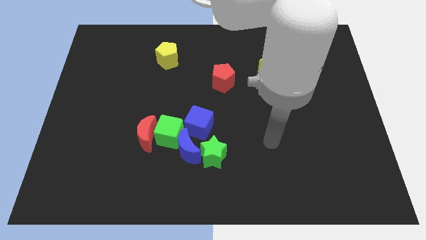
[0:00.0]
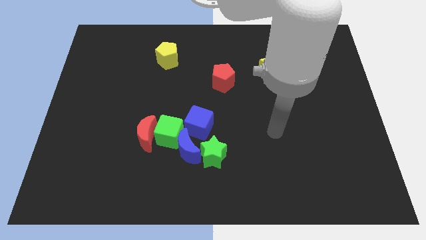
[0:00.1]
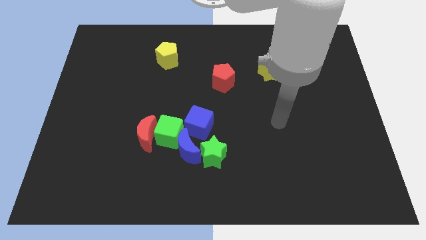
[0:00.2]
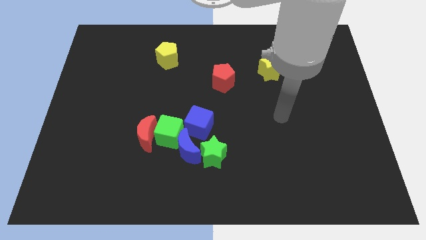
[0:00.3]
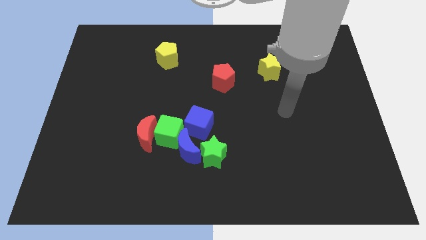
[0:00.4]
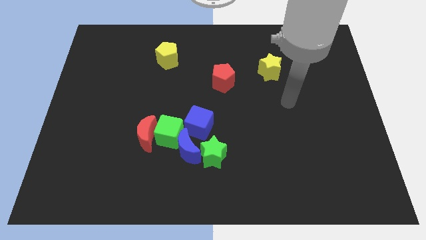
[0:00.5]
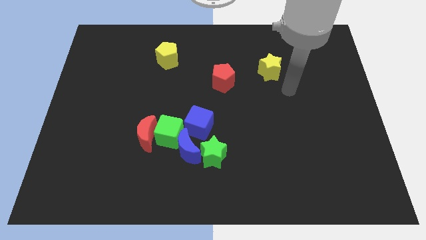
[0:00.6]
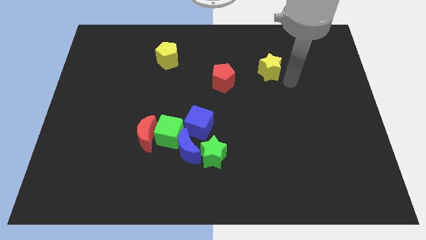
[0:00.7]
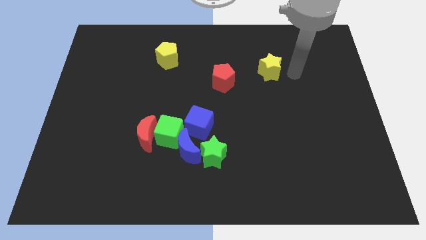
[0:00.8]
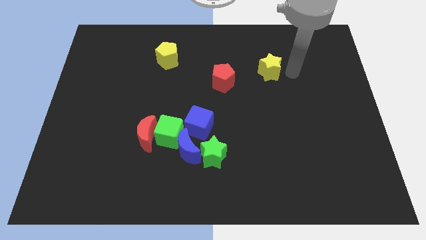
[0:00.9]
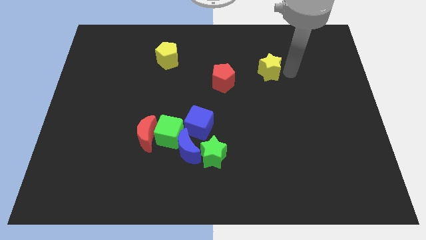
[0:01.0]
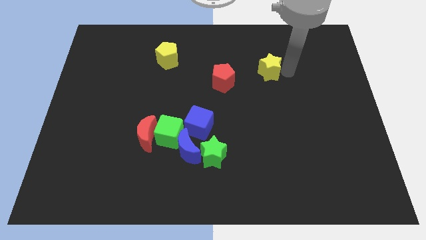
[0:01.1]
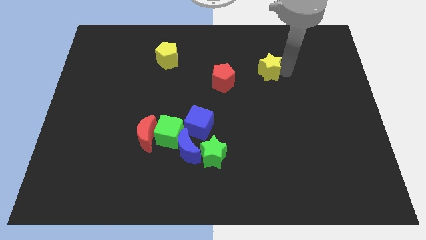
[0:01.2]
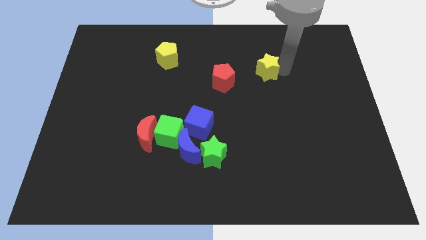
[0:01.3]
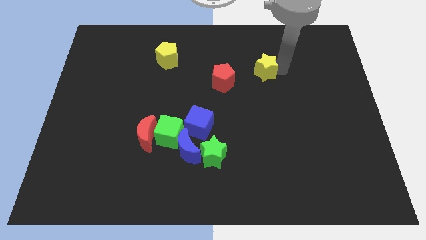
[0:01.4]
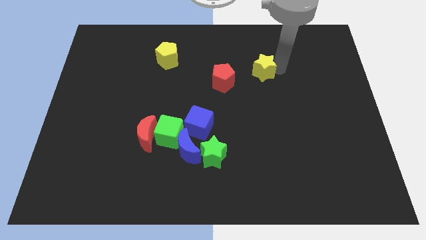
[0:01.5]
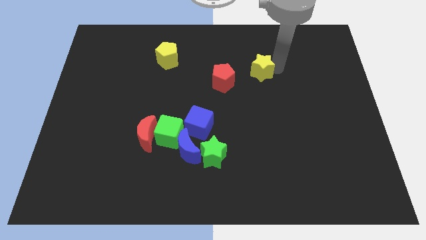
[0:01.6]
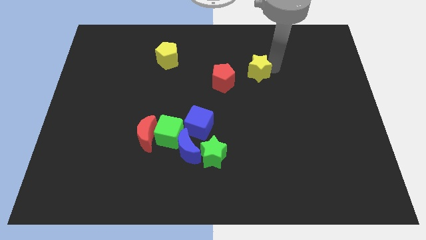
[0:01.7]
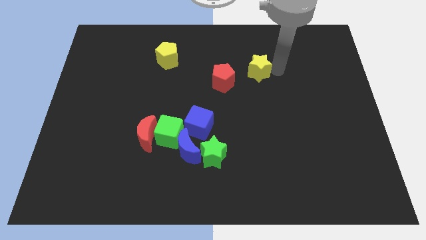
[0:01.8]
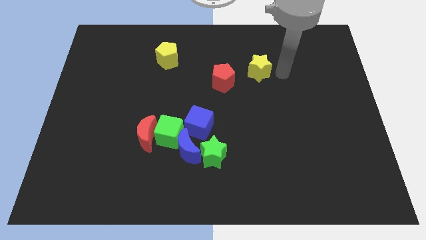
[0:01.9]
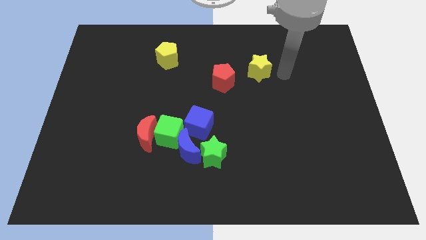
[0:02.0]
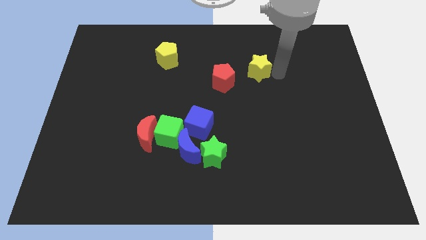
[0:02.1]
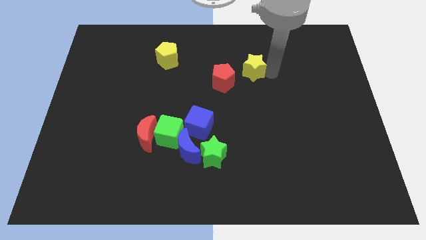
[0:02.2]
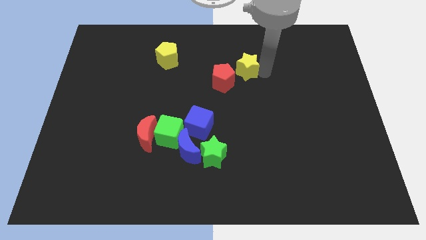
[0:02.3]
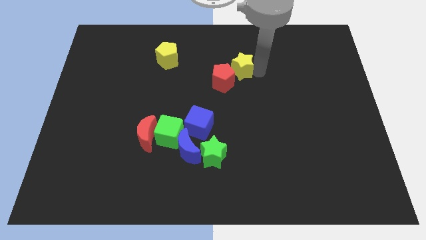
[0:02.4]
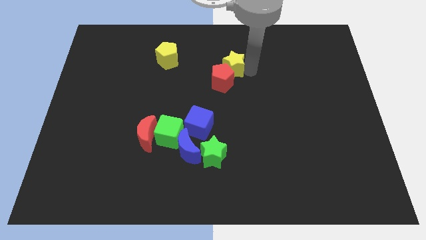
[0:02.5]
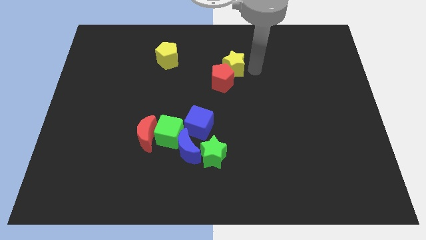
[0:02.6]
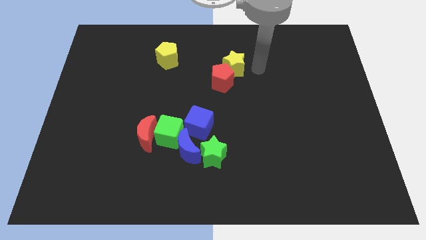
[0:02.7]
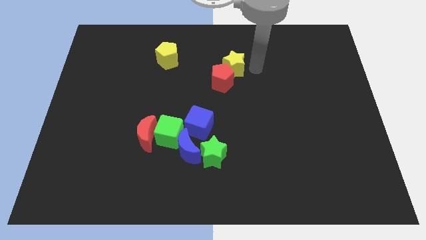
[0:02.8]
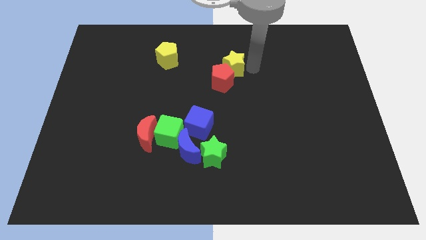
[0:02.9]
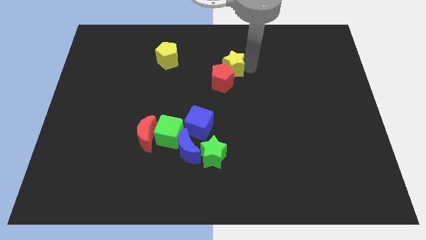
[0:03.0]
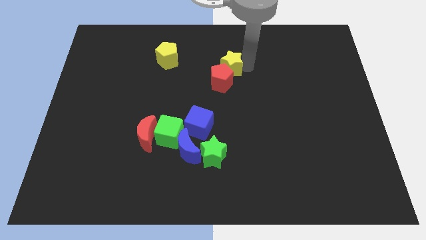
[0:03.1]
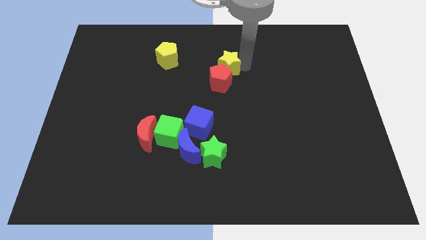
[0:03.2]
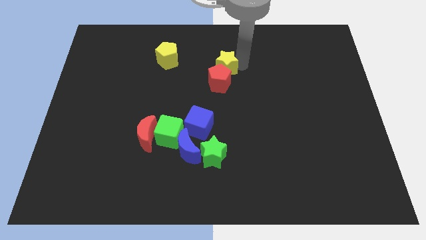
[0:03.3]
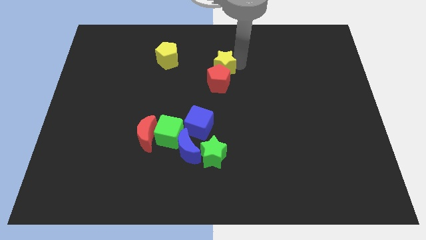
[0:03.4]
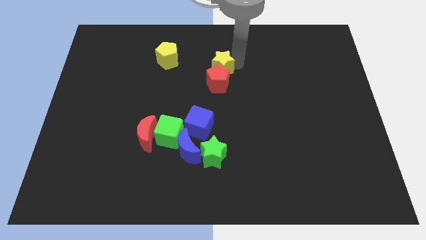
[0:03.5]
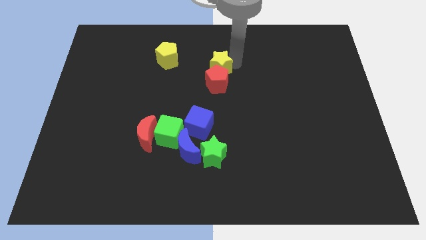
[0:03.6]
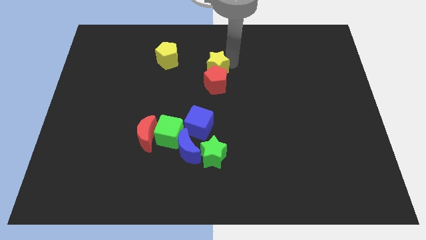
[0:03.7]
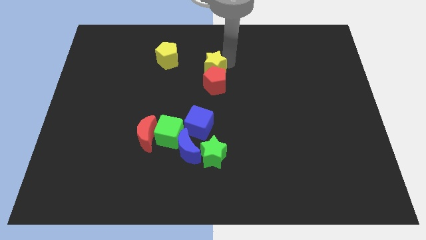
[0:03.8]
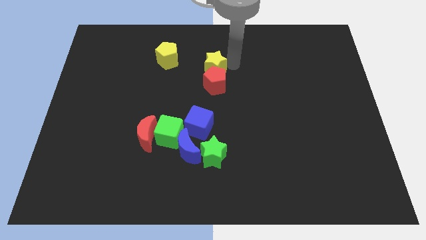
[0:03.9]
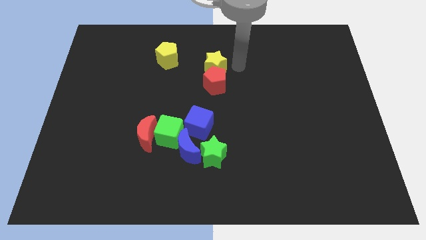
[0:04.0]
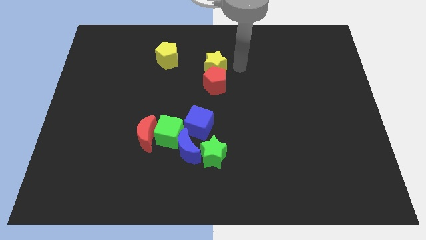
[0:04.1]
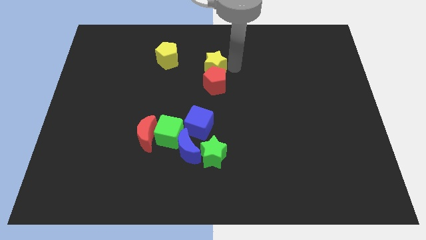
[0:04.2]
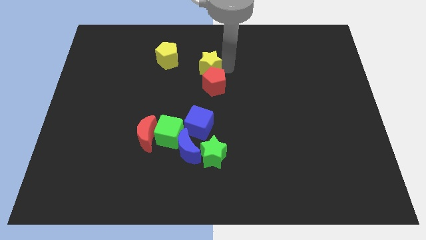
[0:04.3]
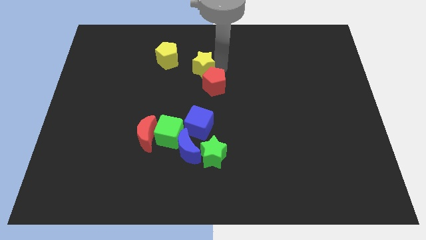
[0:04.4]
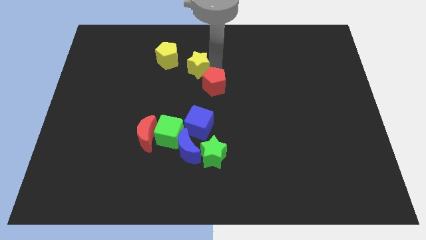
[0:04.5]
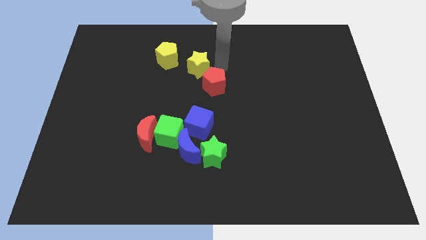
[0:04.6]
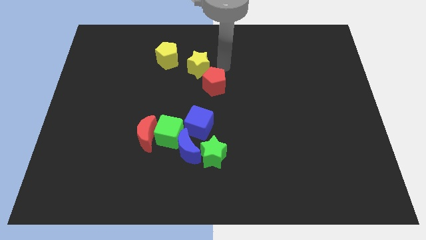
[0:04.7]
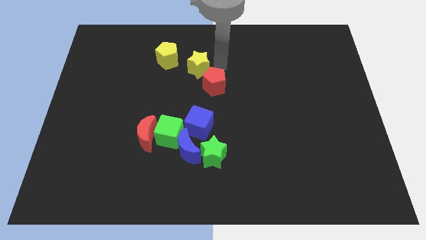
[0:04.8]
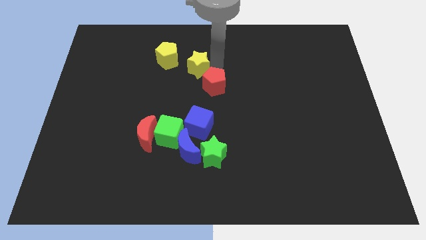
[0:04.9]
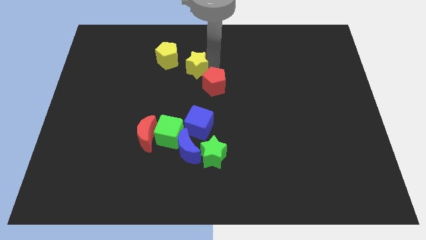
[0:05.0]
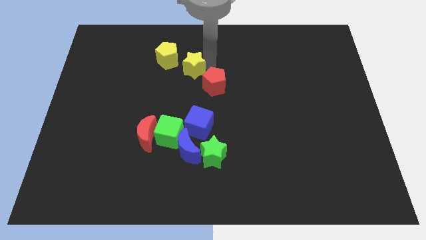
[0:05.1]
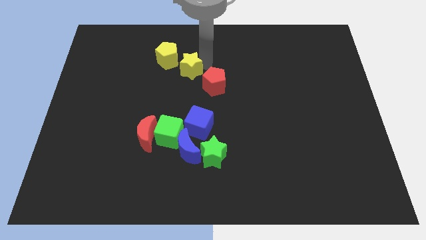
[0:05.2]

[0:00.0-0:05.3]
move the yellow star to the left

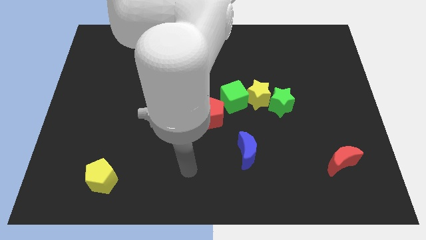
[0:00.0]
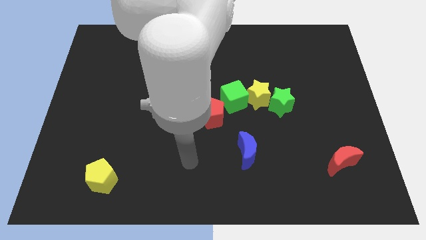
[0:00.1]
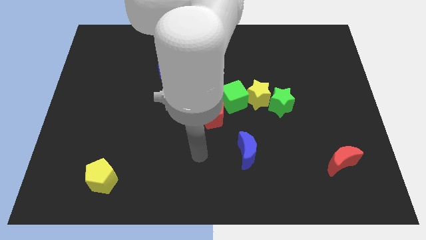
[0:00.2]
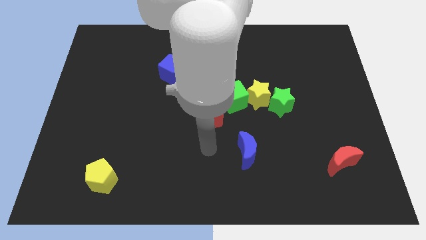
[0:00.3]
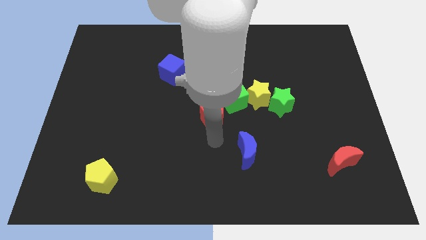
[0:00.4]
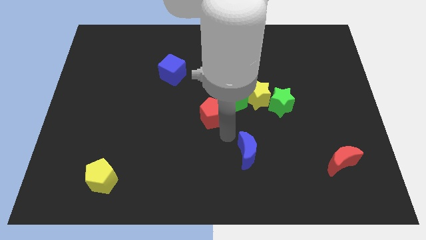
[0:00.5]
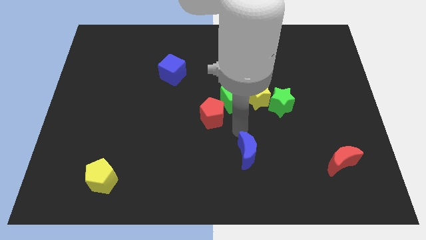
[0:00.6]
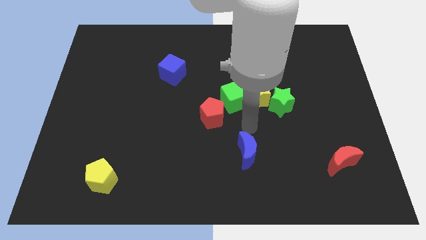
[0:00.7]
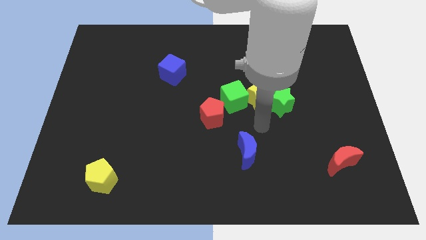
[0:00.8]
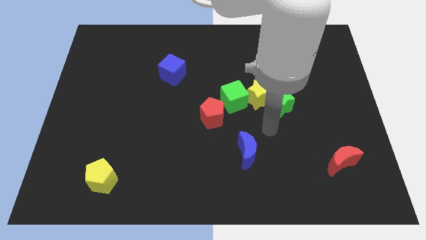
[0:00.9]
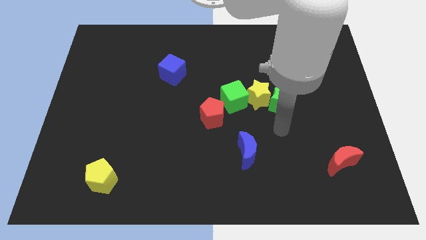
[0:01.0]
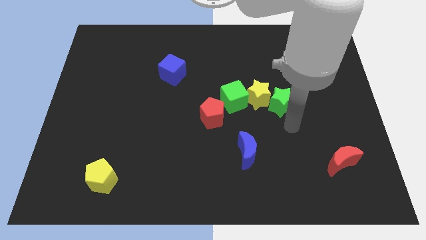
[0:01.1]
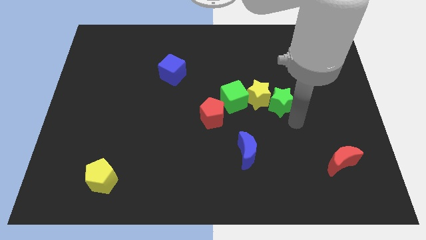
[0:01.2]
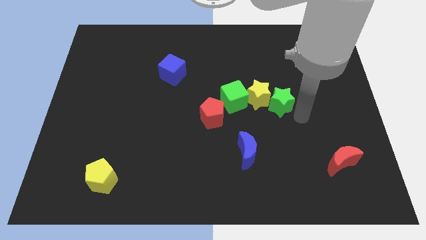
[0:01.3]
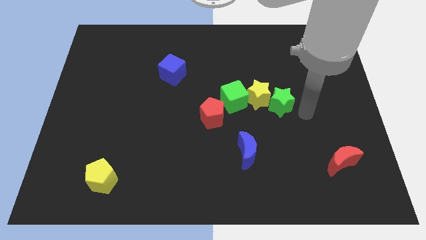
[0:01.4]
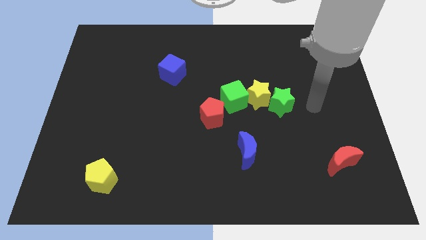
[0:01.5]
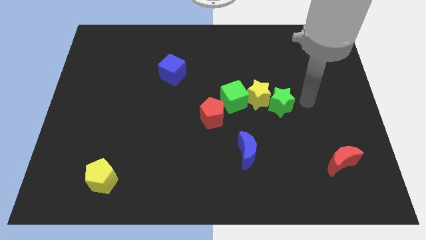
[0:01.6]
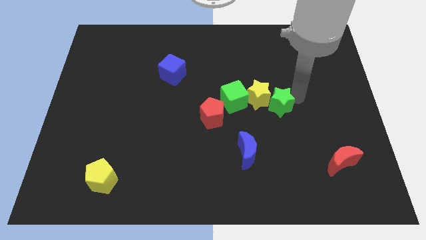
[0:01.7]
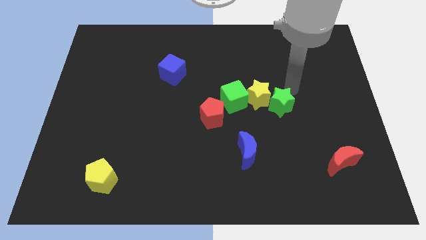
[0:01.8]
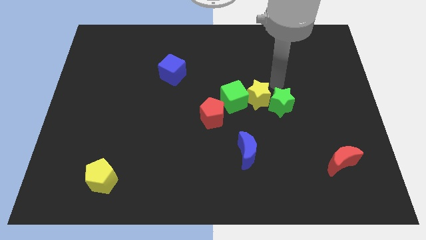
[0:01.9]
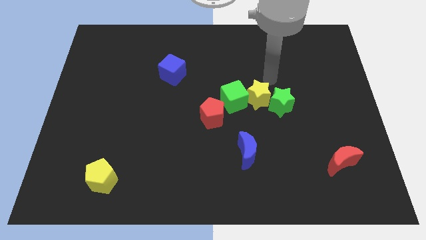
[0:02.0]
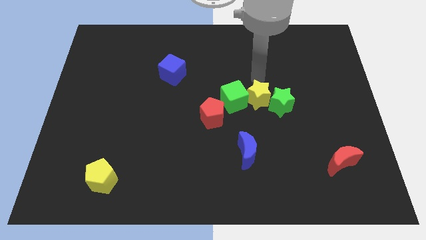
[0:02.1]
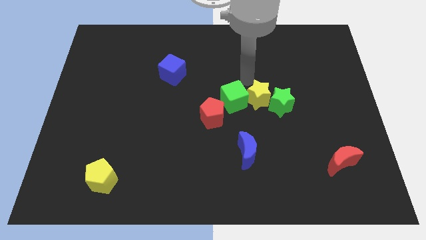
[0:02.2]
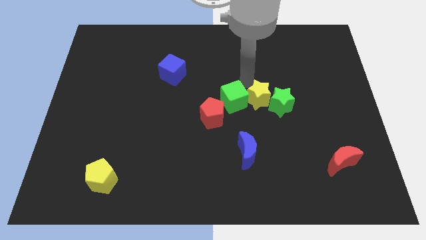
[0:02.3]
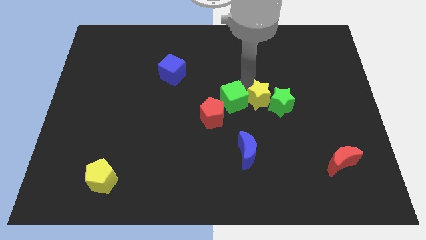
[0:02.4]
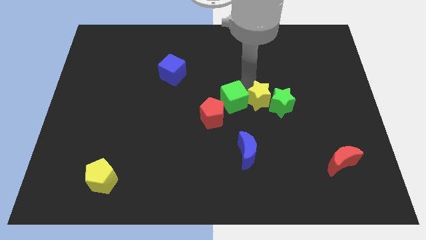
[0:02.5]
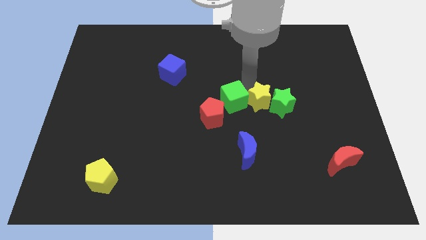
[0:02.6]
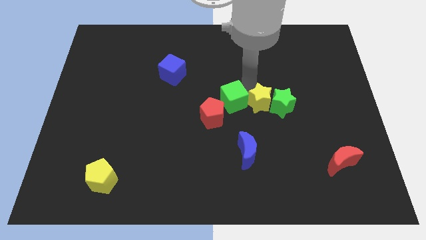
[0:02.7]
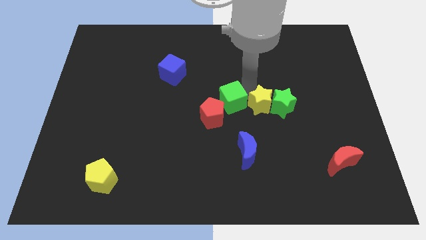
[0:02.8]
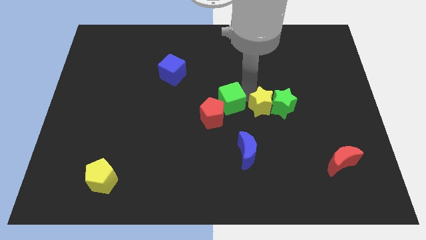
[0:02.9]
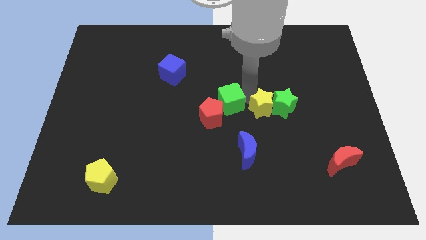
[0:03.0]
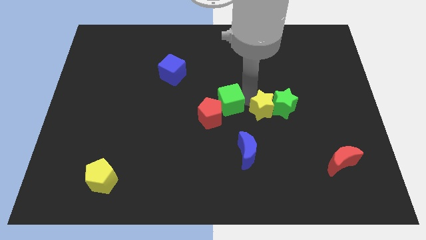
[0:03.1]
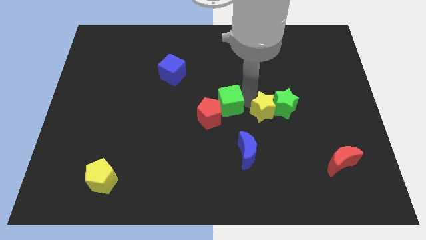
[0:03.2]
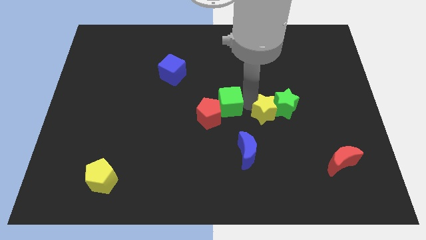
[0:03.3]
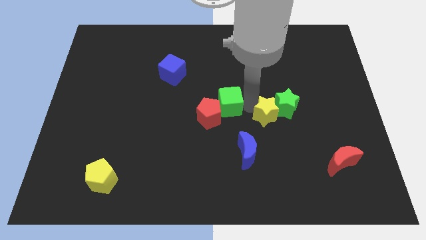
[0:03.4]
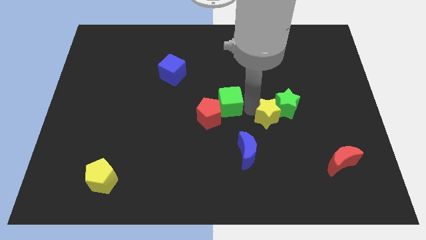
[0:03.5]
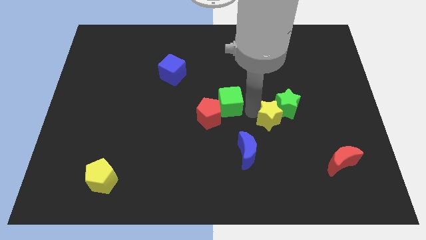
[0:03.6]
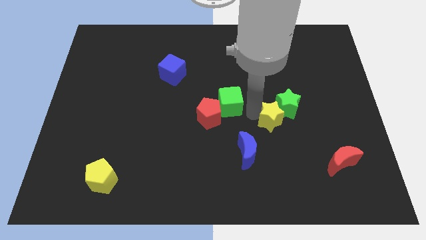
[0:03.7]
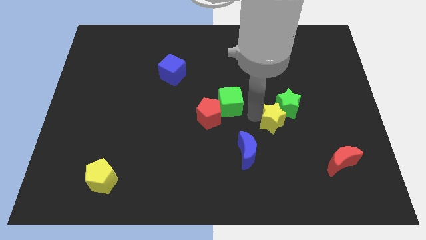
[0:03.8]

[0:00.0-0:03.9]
move the yellow star downwards slightly
